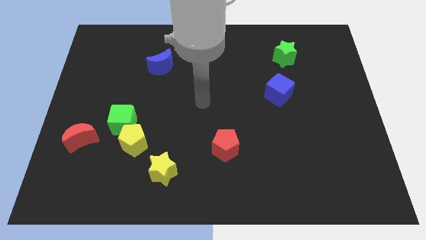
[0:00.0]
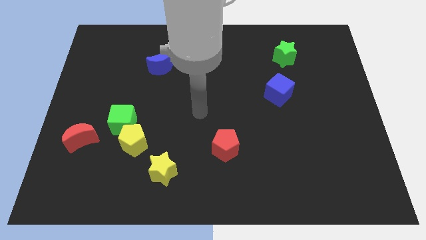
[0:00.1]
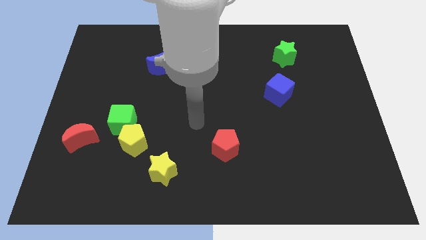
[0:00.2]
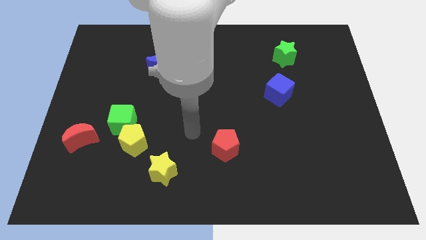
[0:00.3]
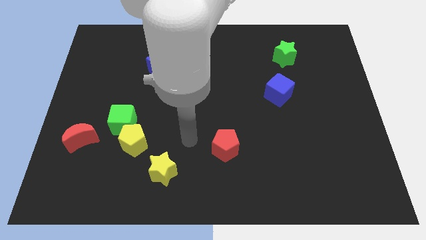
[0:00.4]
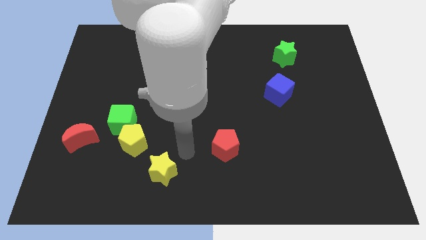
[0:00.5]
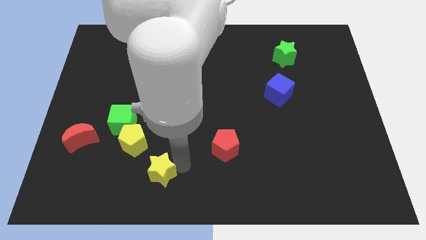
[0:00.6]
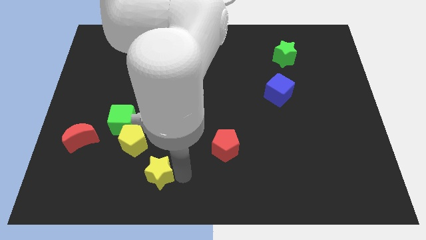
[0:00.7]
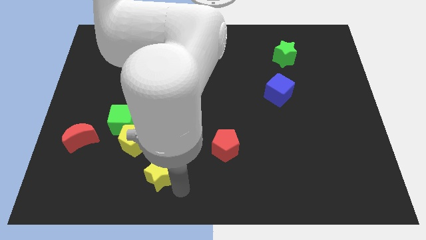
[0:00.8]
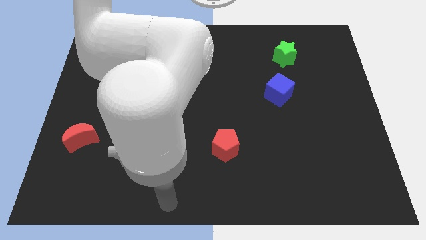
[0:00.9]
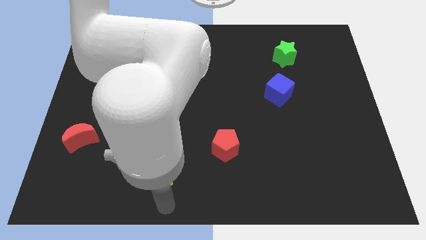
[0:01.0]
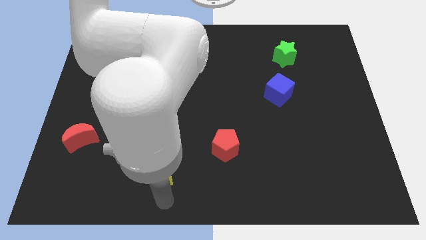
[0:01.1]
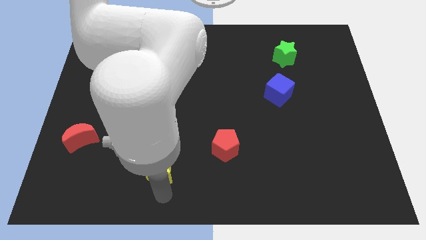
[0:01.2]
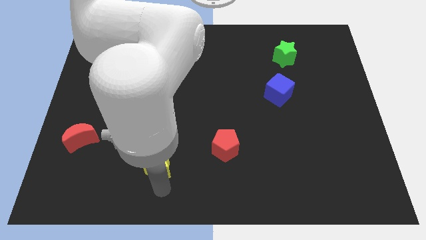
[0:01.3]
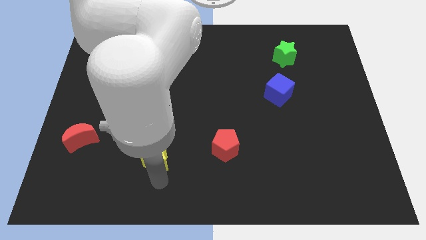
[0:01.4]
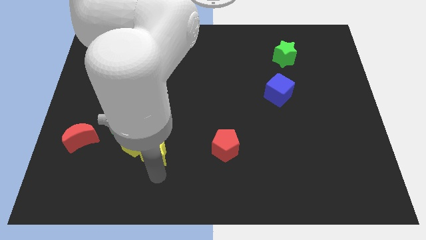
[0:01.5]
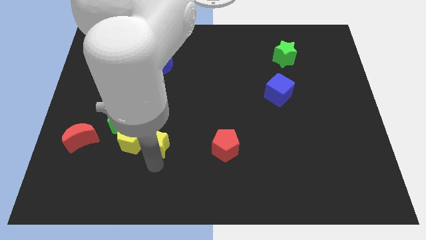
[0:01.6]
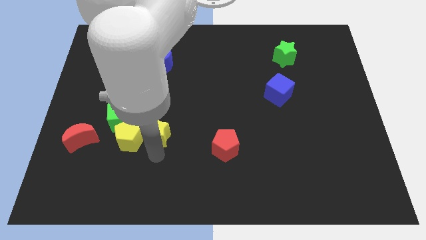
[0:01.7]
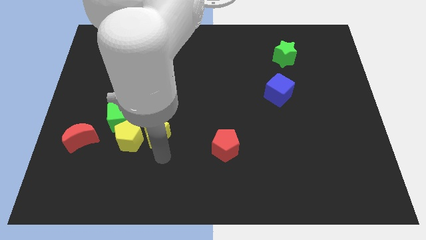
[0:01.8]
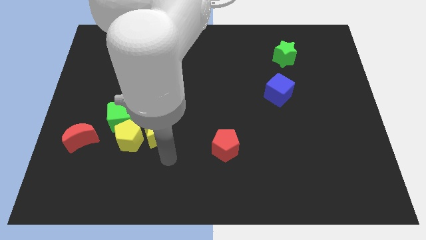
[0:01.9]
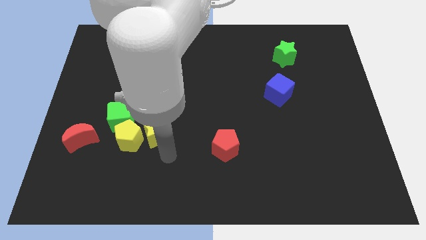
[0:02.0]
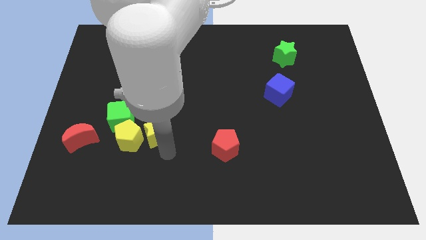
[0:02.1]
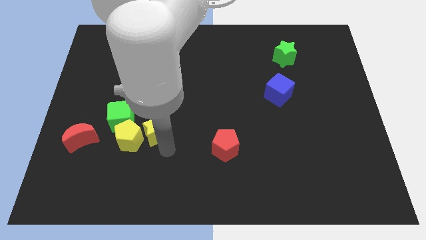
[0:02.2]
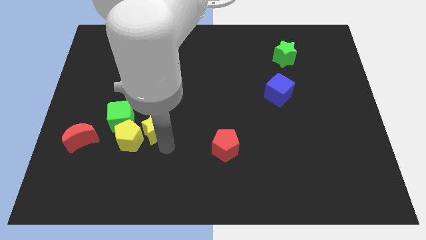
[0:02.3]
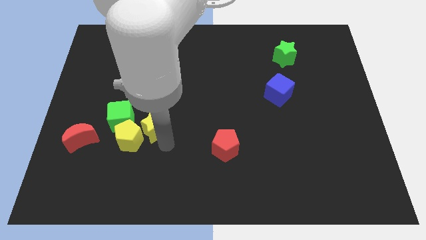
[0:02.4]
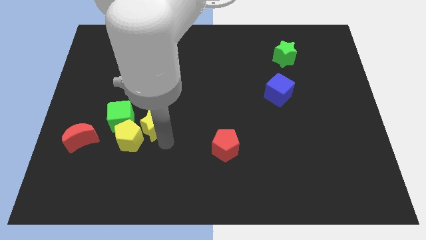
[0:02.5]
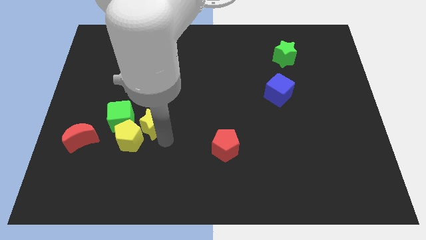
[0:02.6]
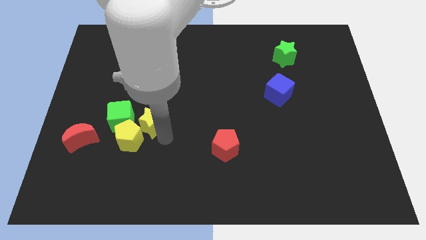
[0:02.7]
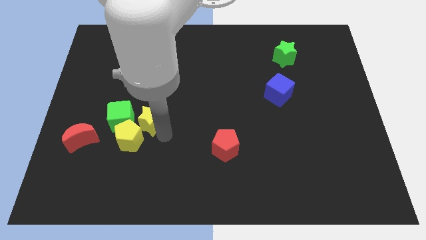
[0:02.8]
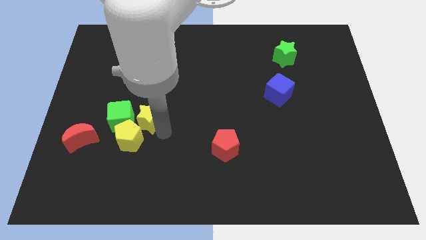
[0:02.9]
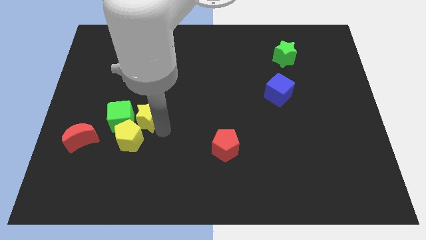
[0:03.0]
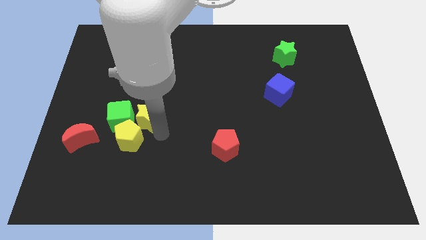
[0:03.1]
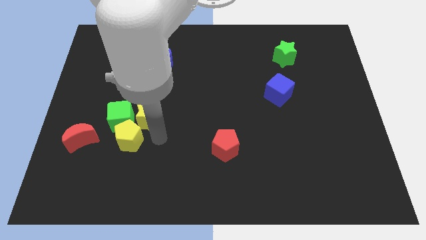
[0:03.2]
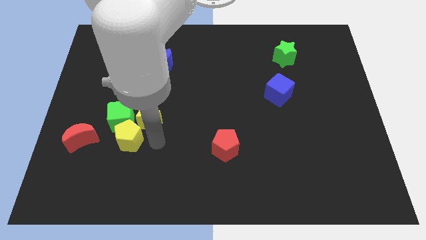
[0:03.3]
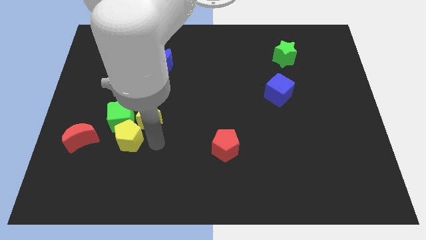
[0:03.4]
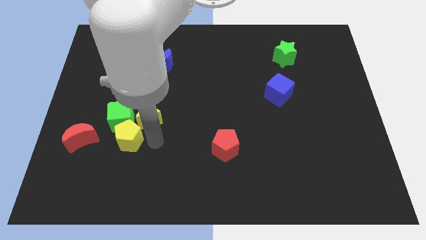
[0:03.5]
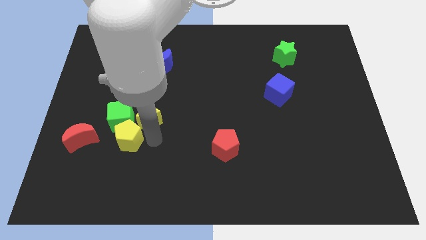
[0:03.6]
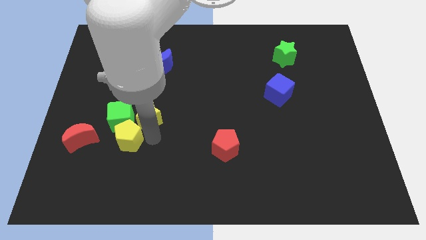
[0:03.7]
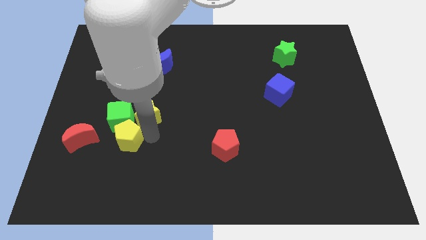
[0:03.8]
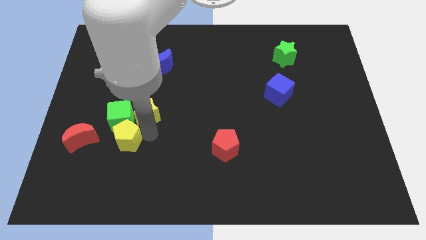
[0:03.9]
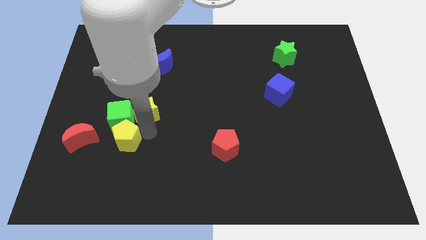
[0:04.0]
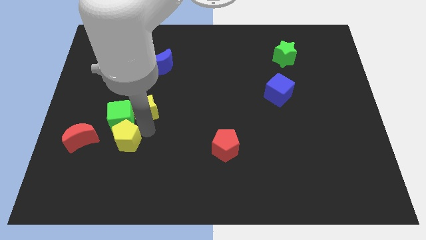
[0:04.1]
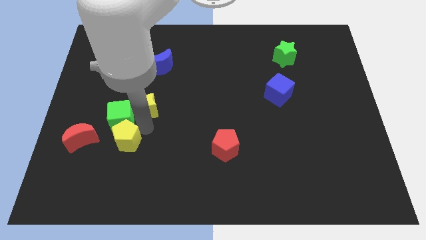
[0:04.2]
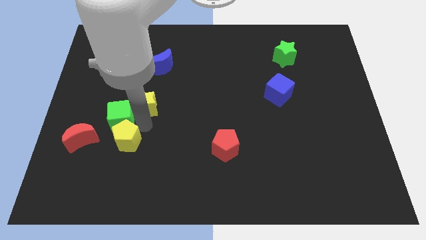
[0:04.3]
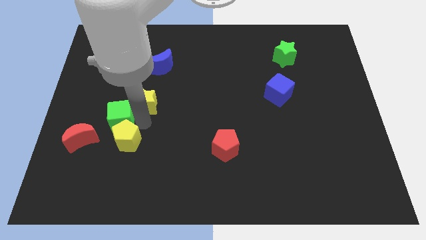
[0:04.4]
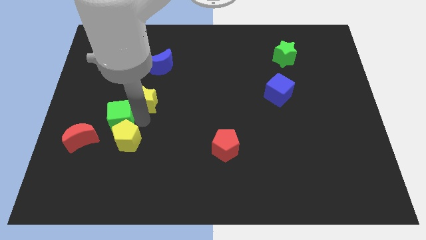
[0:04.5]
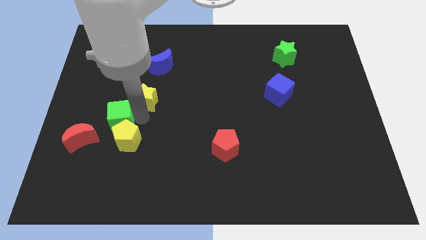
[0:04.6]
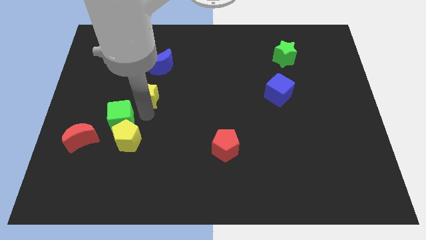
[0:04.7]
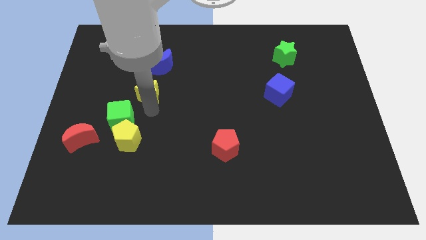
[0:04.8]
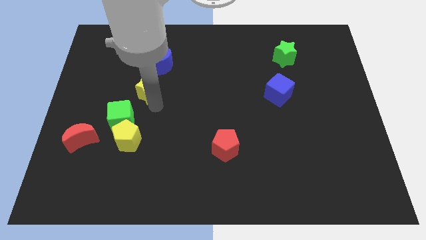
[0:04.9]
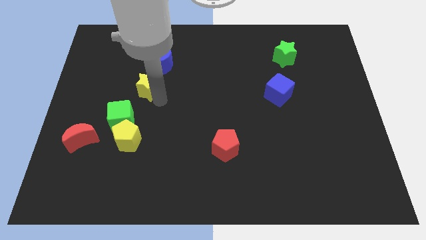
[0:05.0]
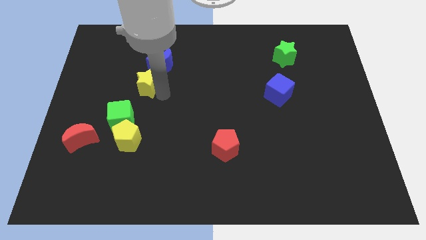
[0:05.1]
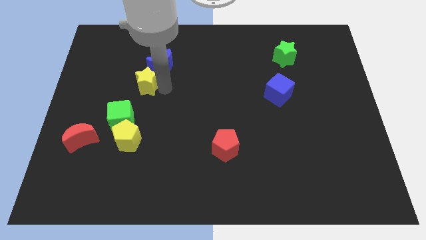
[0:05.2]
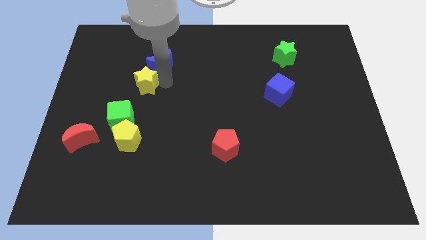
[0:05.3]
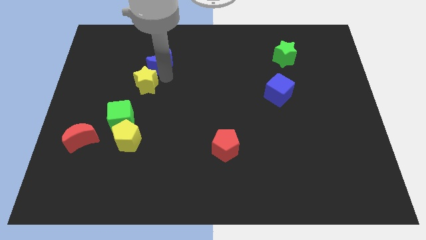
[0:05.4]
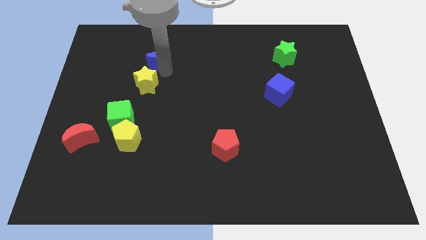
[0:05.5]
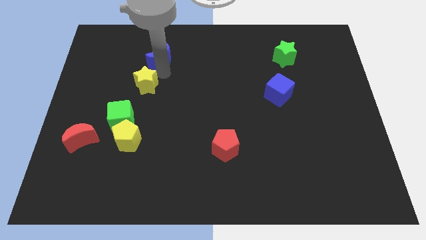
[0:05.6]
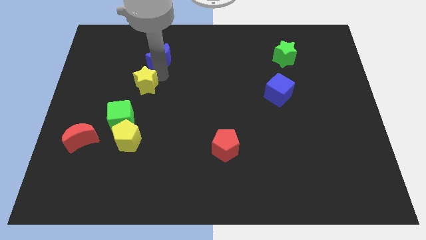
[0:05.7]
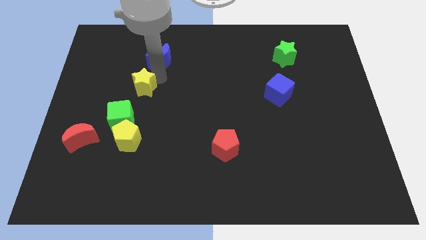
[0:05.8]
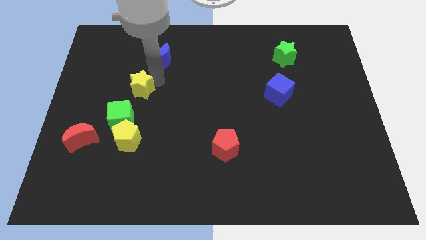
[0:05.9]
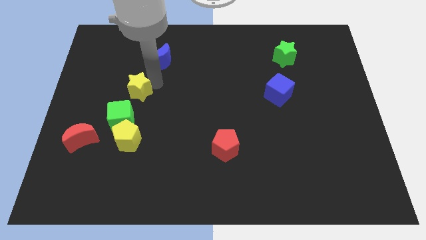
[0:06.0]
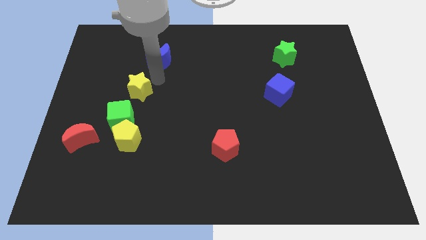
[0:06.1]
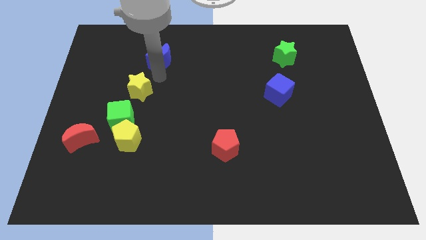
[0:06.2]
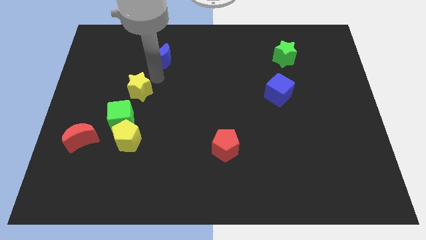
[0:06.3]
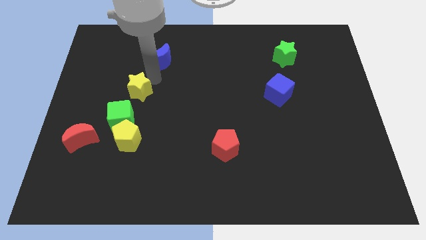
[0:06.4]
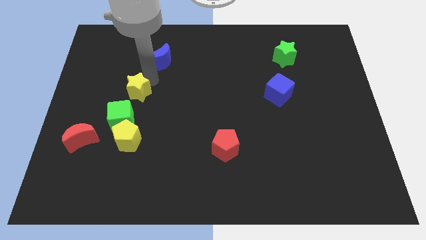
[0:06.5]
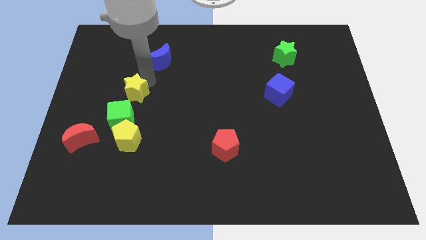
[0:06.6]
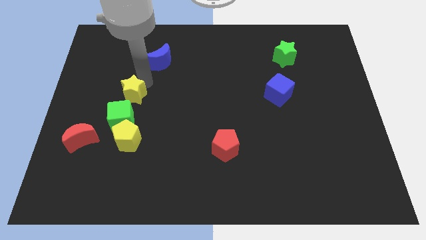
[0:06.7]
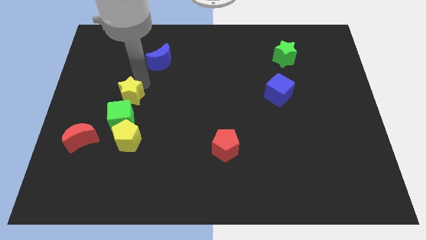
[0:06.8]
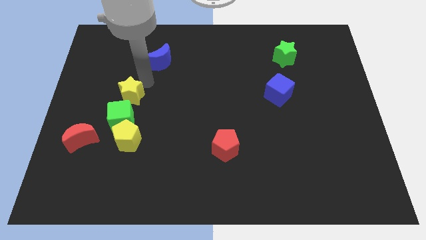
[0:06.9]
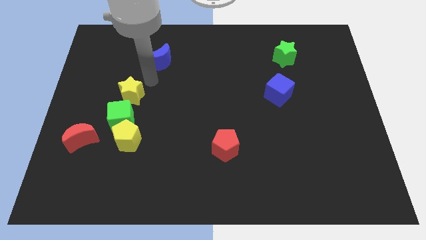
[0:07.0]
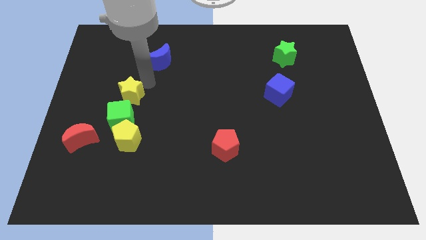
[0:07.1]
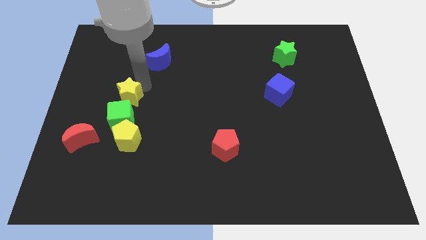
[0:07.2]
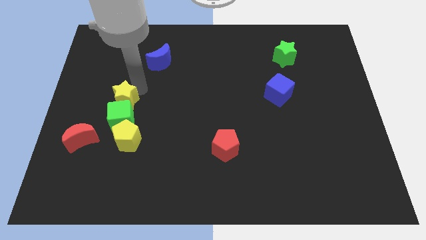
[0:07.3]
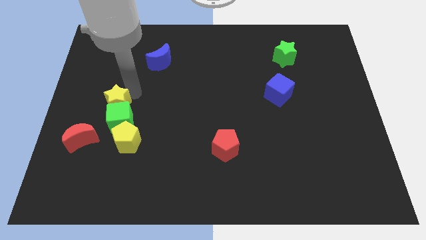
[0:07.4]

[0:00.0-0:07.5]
move the yellow star diagonally up and to the left of the yellow pentagon
